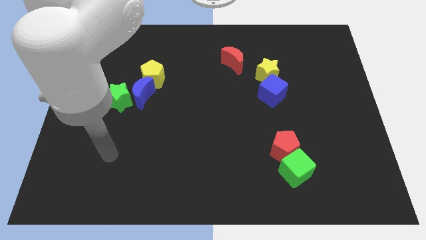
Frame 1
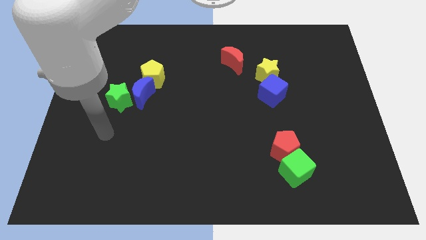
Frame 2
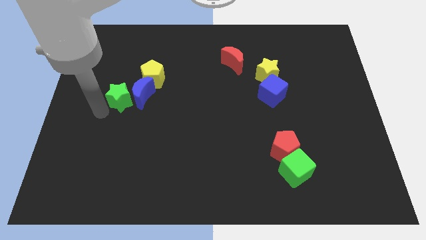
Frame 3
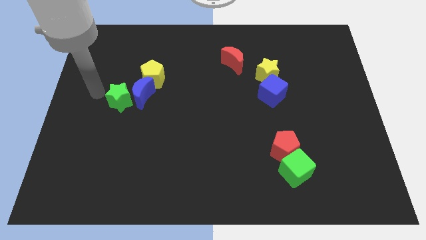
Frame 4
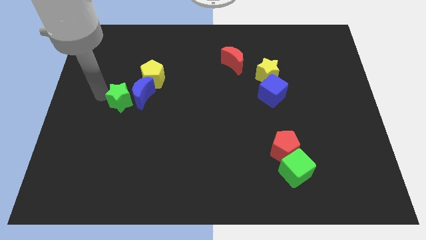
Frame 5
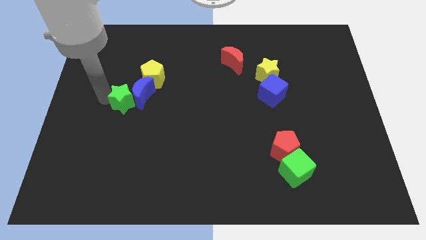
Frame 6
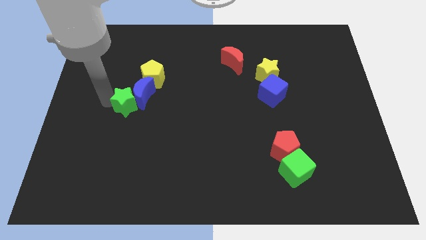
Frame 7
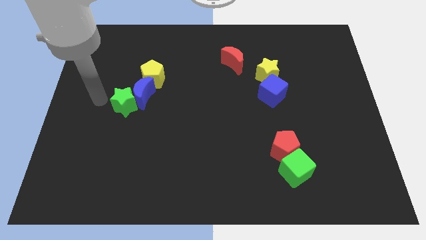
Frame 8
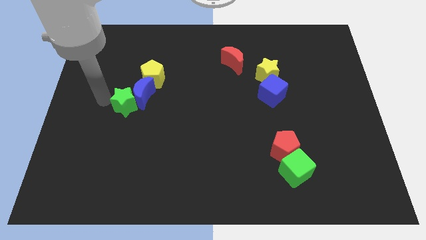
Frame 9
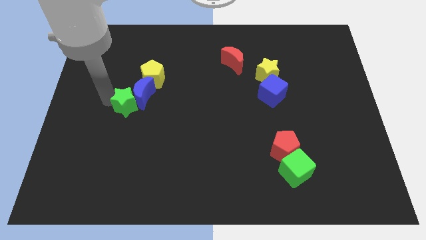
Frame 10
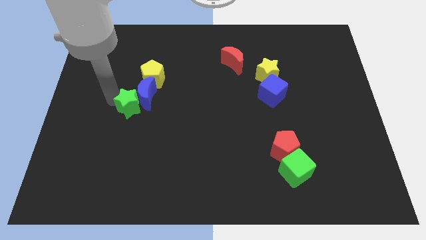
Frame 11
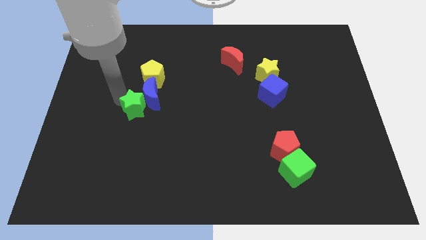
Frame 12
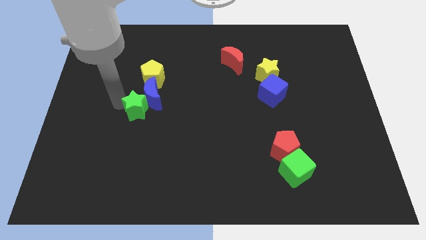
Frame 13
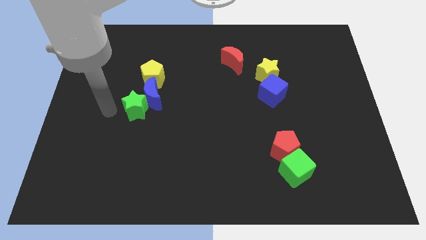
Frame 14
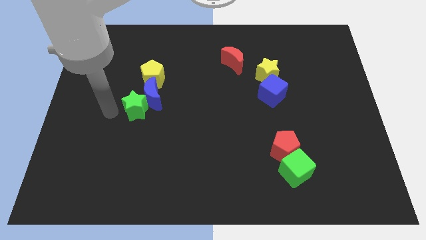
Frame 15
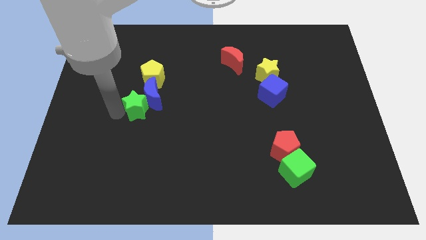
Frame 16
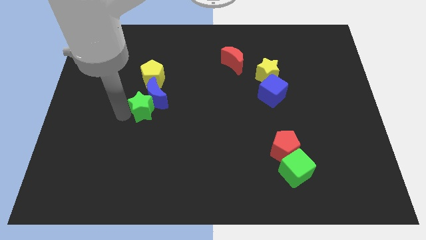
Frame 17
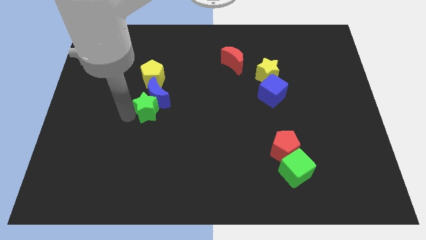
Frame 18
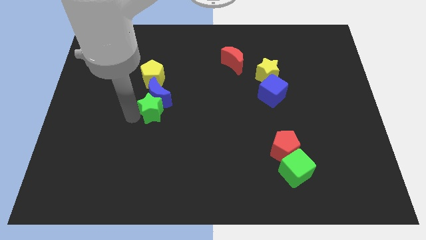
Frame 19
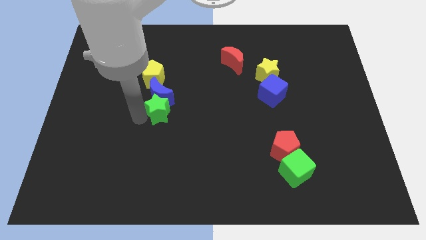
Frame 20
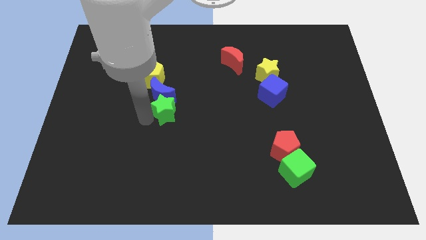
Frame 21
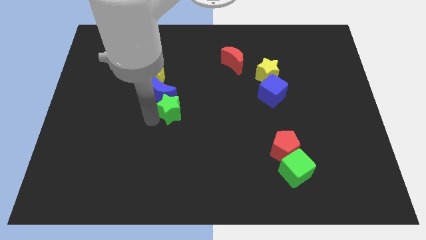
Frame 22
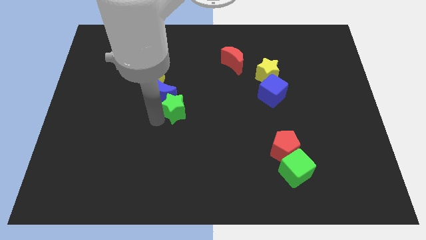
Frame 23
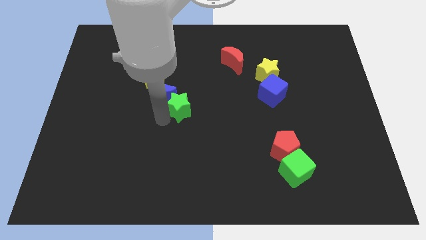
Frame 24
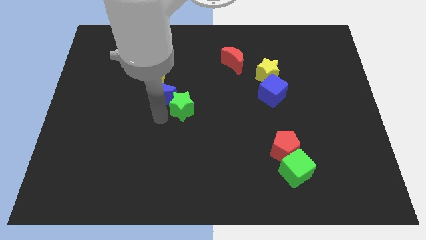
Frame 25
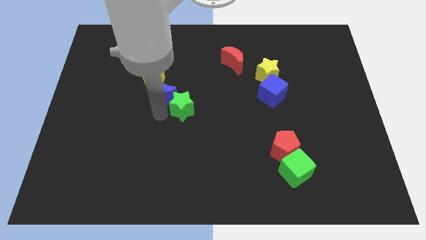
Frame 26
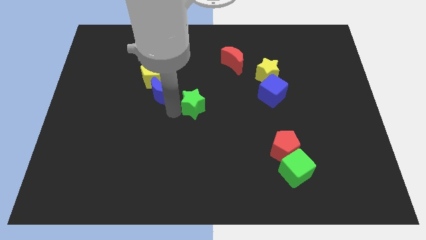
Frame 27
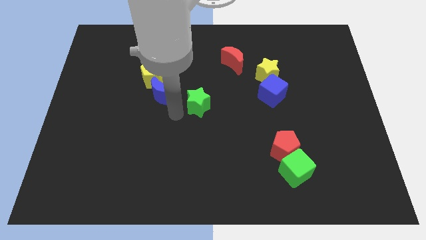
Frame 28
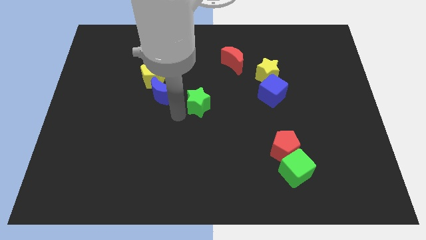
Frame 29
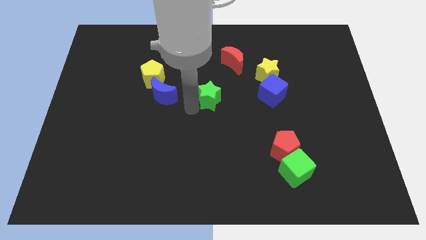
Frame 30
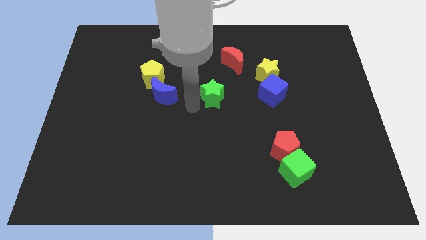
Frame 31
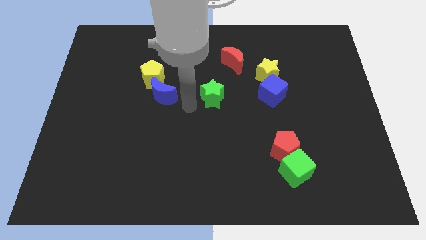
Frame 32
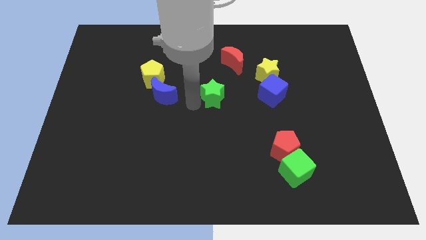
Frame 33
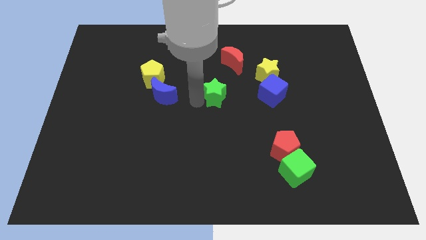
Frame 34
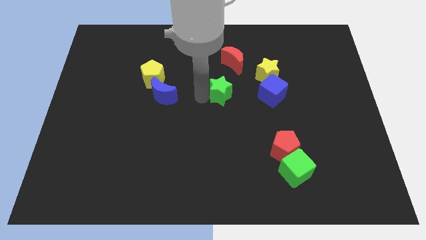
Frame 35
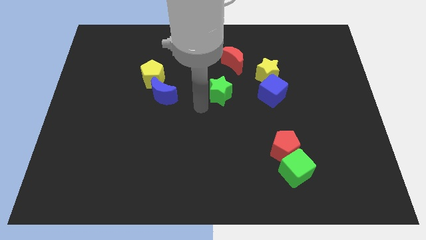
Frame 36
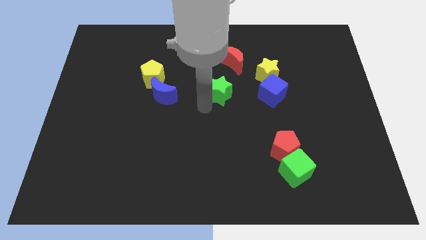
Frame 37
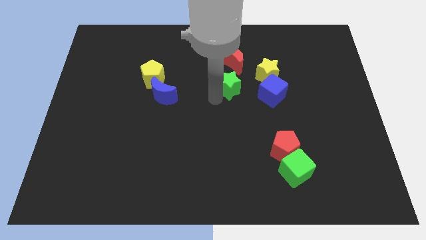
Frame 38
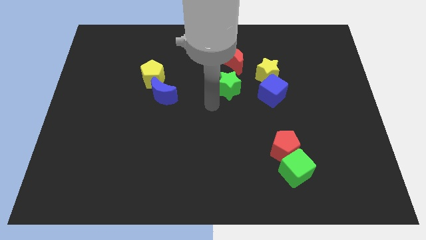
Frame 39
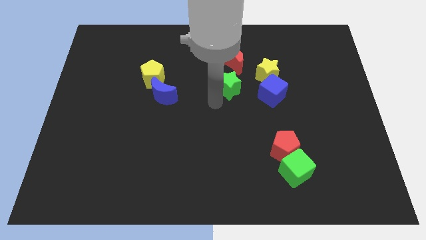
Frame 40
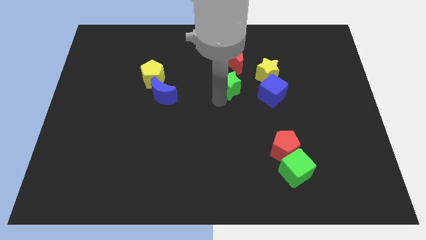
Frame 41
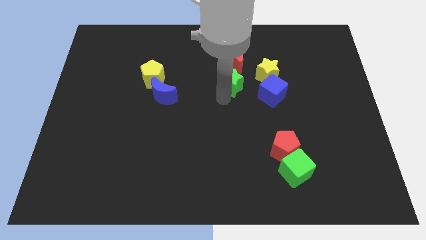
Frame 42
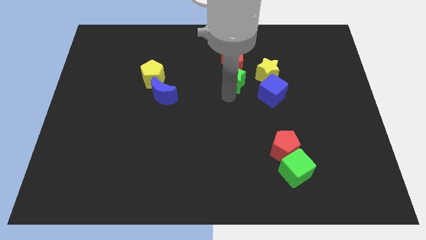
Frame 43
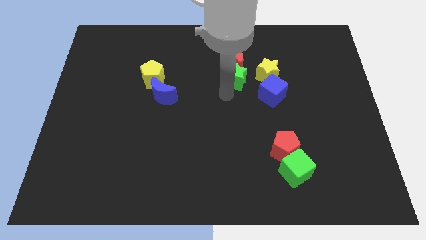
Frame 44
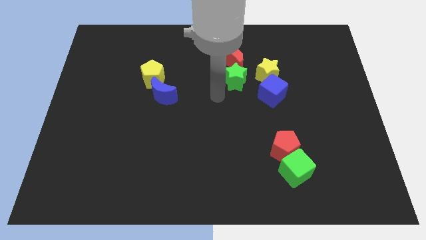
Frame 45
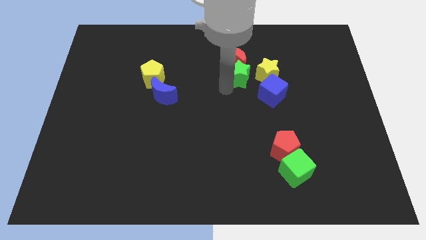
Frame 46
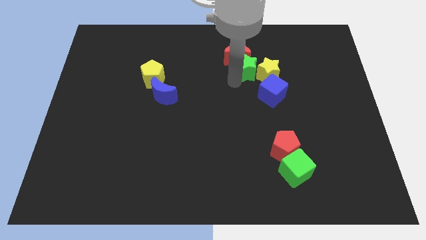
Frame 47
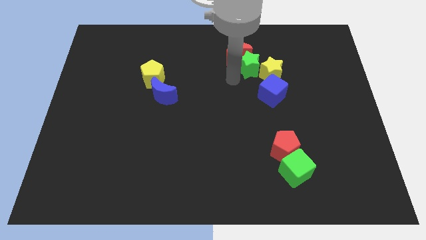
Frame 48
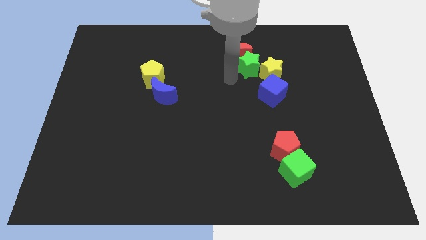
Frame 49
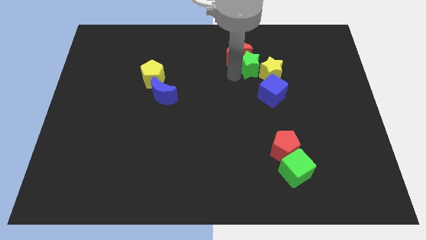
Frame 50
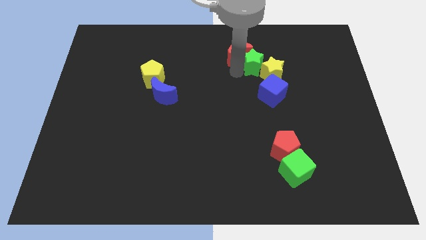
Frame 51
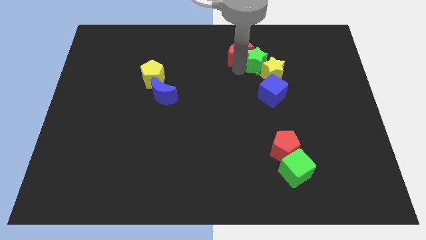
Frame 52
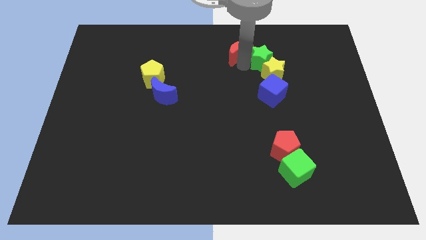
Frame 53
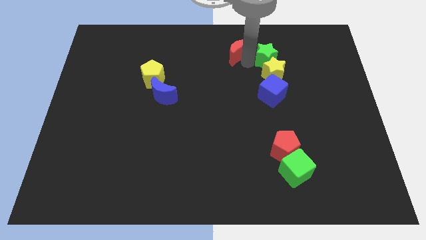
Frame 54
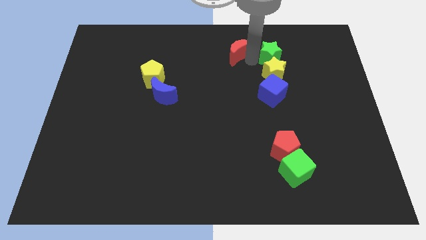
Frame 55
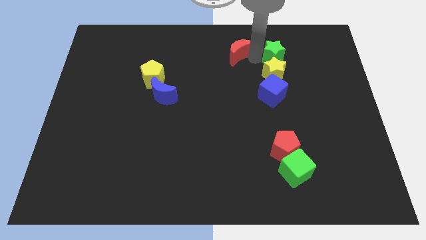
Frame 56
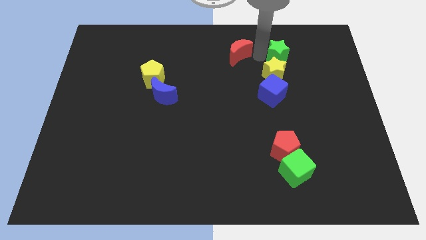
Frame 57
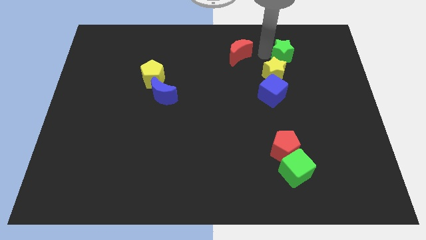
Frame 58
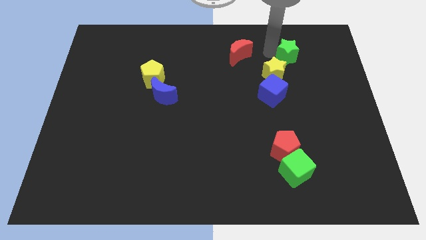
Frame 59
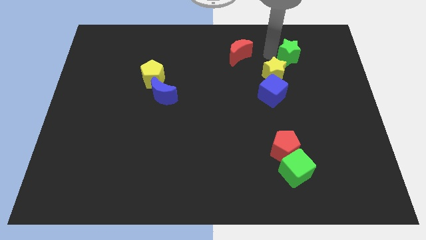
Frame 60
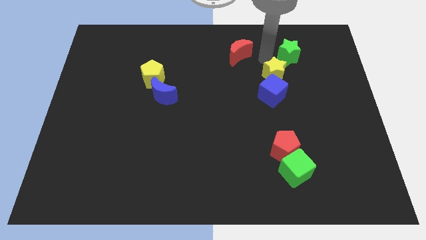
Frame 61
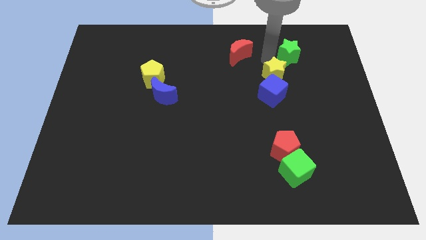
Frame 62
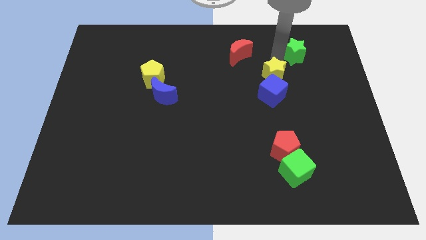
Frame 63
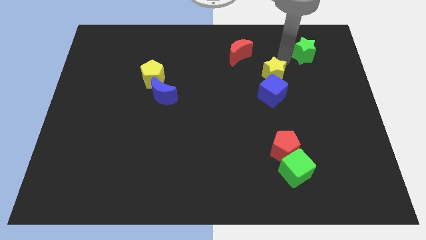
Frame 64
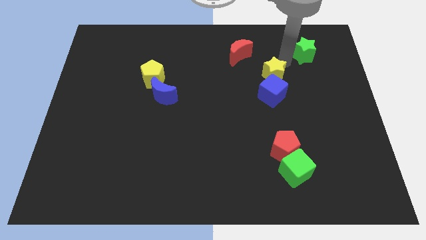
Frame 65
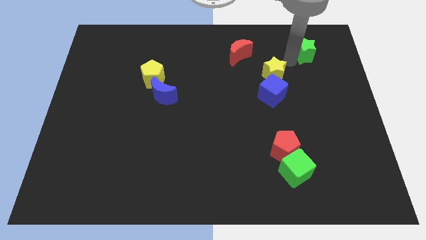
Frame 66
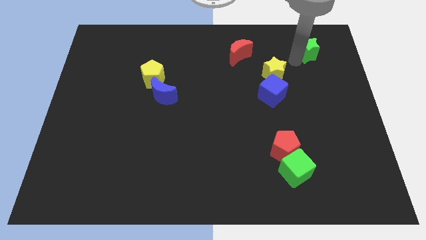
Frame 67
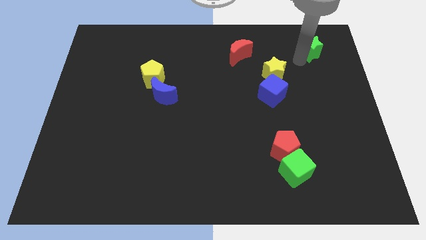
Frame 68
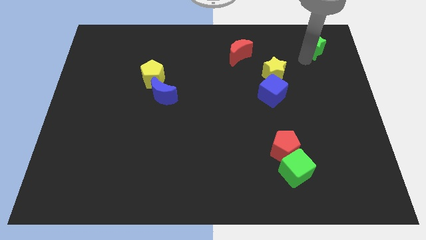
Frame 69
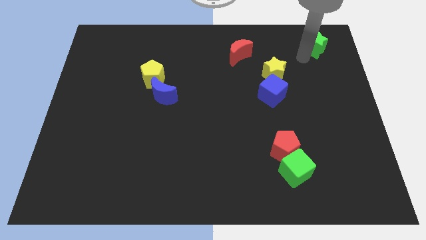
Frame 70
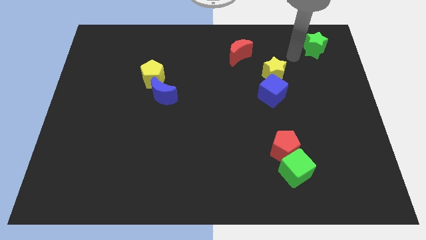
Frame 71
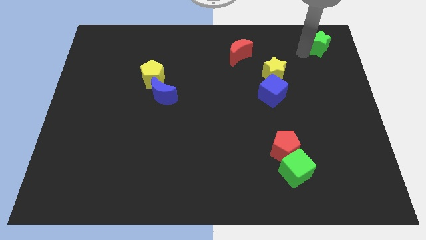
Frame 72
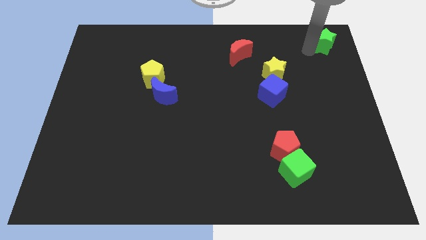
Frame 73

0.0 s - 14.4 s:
move the green star to the top right corner
